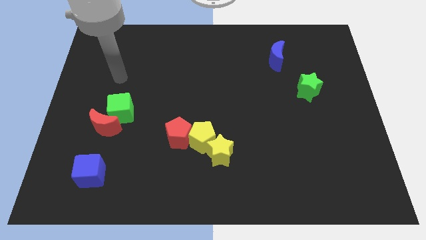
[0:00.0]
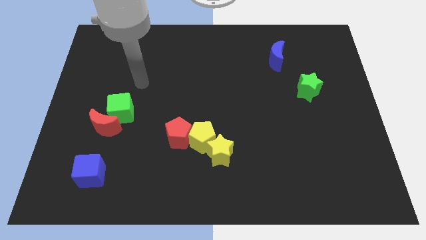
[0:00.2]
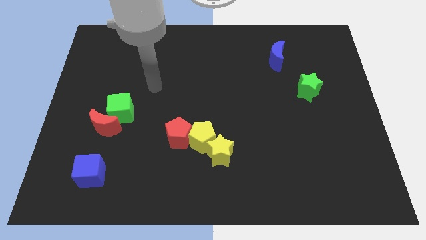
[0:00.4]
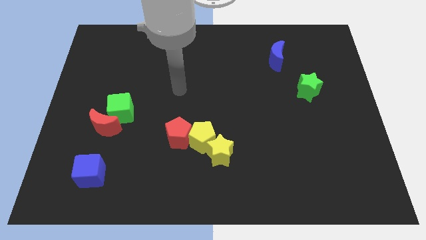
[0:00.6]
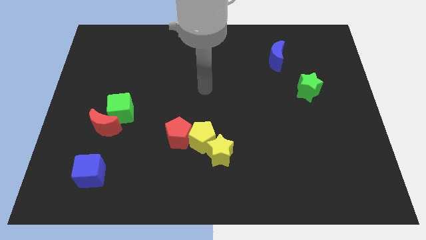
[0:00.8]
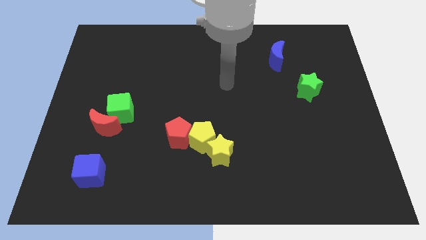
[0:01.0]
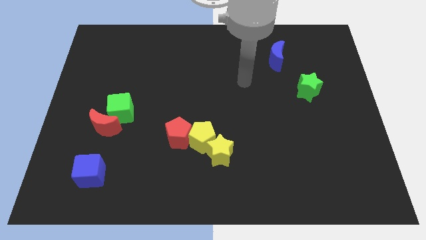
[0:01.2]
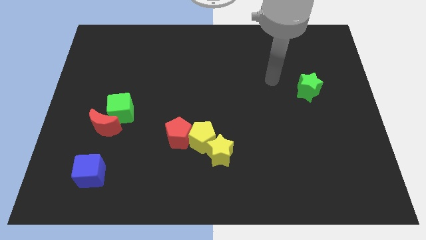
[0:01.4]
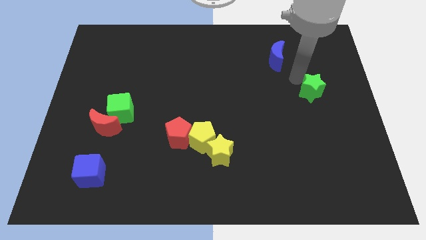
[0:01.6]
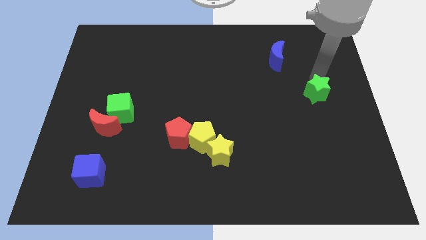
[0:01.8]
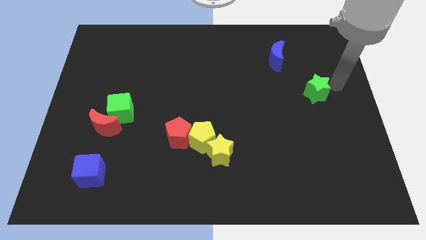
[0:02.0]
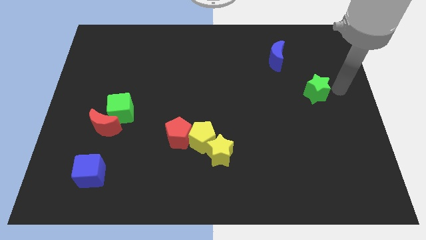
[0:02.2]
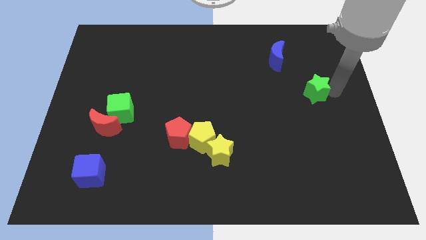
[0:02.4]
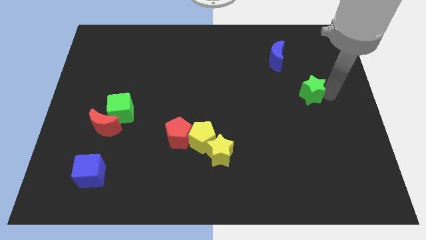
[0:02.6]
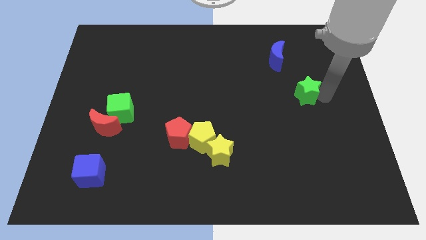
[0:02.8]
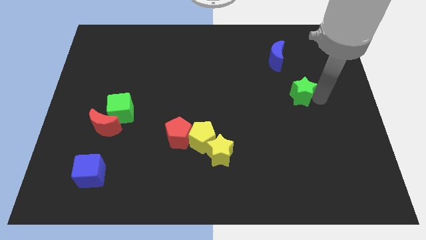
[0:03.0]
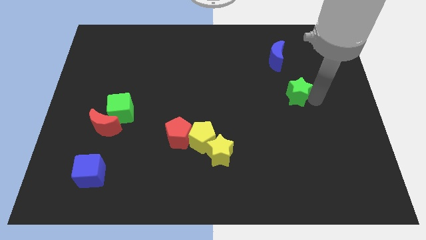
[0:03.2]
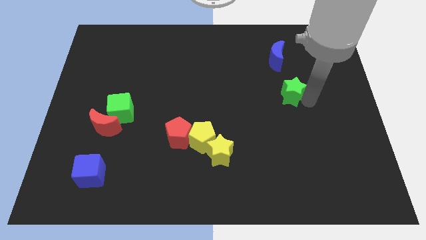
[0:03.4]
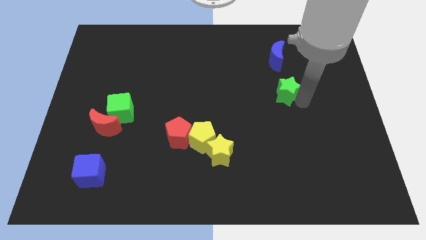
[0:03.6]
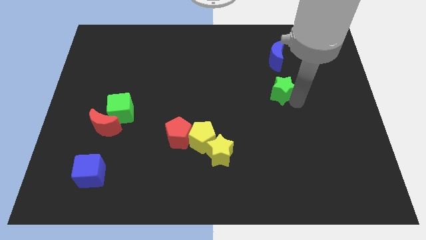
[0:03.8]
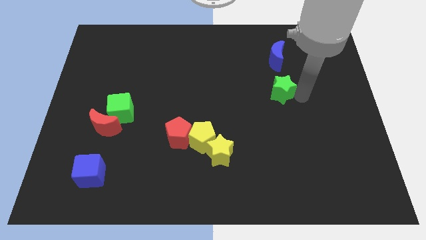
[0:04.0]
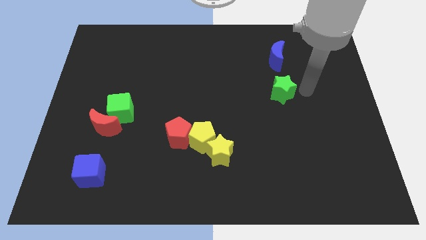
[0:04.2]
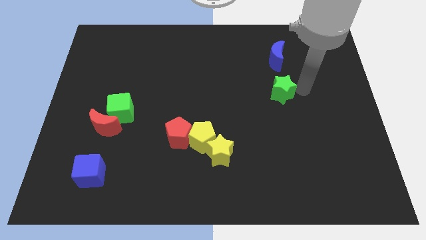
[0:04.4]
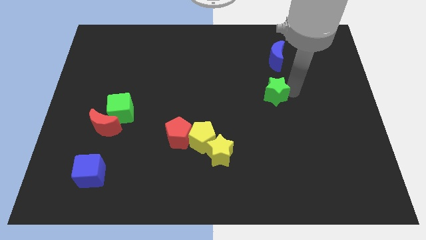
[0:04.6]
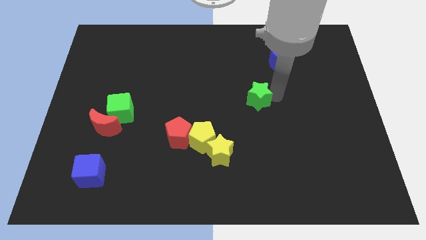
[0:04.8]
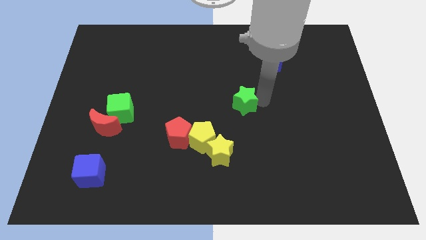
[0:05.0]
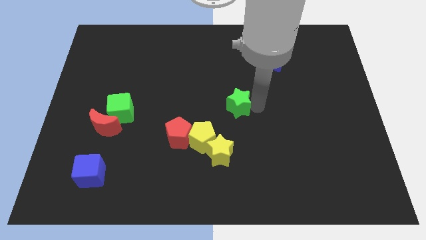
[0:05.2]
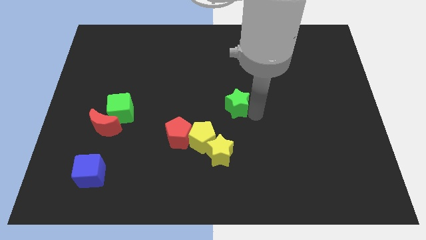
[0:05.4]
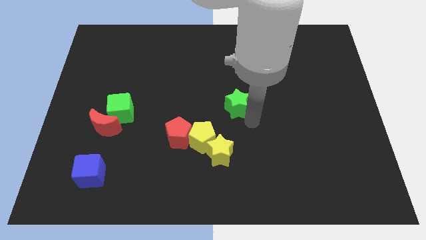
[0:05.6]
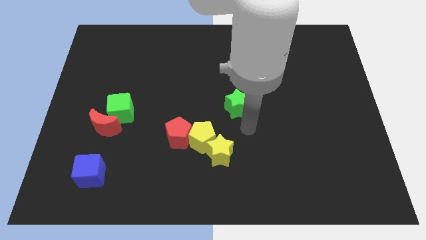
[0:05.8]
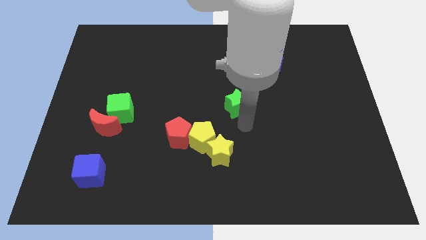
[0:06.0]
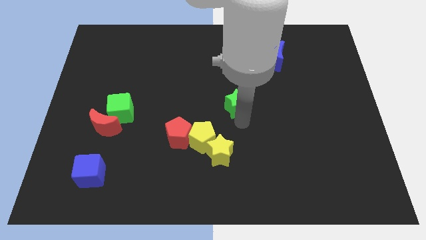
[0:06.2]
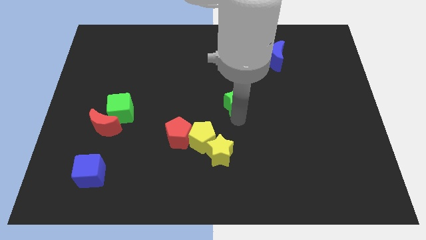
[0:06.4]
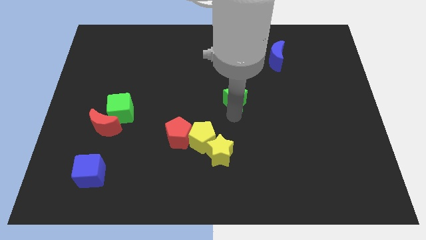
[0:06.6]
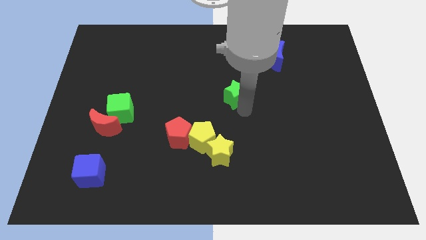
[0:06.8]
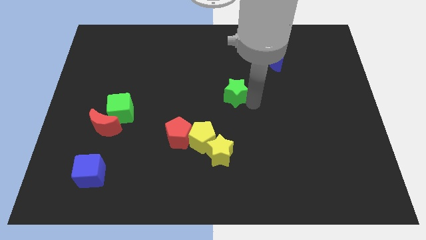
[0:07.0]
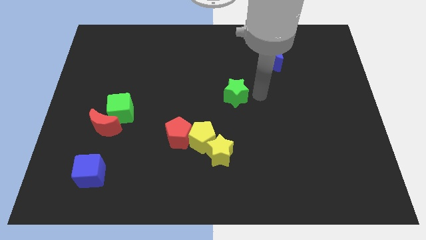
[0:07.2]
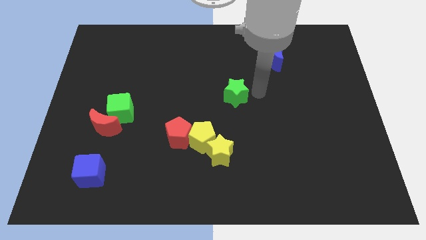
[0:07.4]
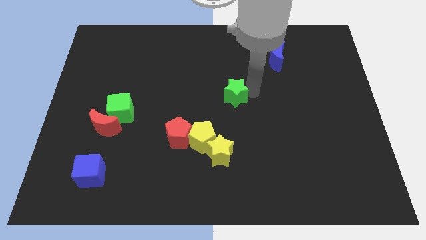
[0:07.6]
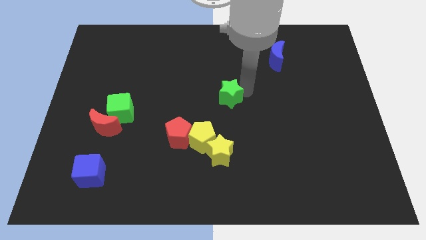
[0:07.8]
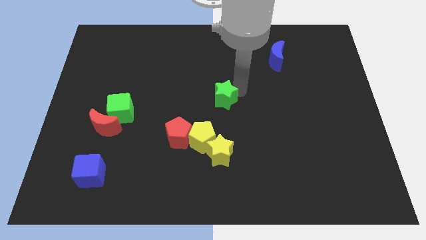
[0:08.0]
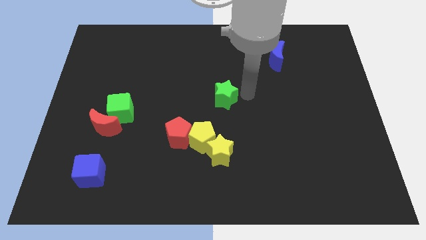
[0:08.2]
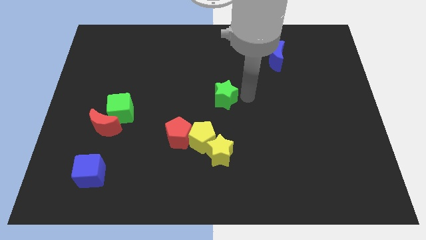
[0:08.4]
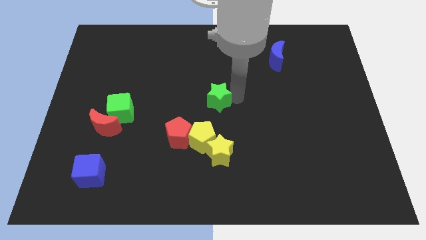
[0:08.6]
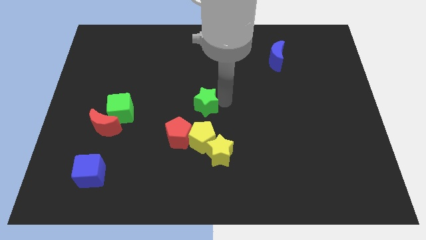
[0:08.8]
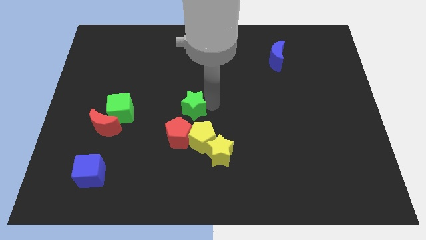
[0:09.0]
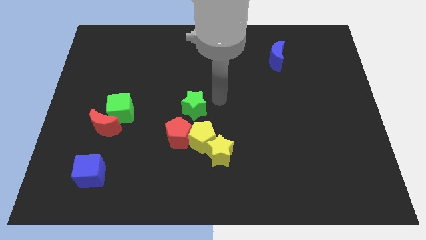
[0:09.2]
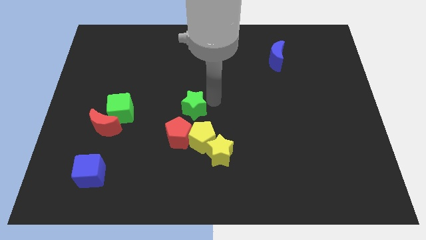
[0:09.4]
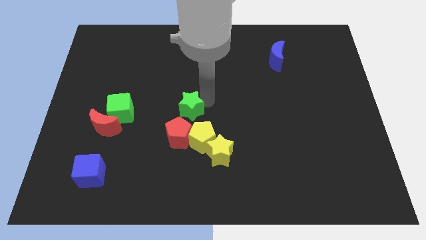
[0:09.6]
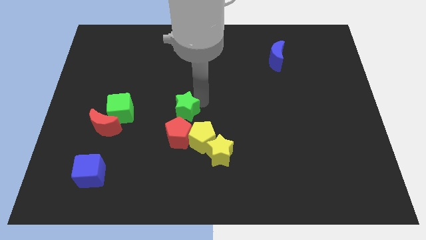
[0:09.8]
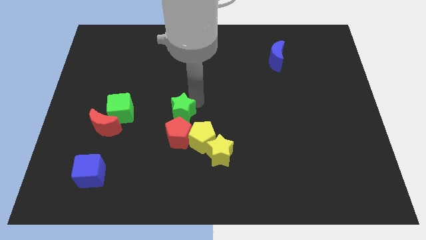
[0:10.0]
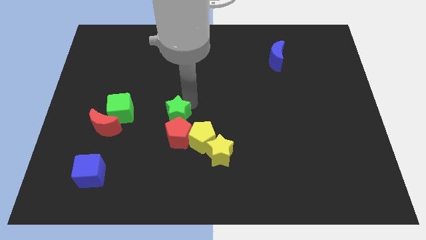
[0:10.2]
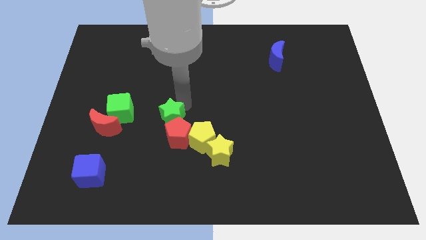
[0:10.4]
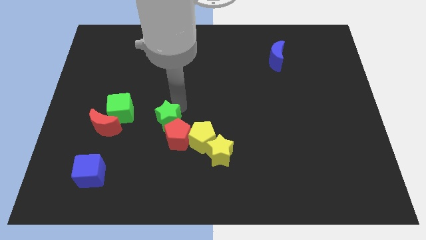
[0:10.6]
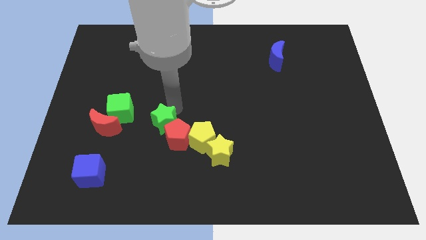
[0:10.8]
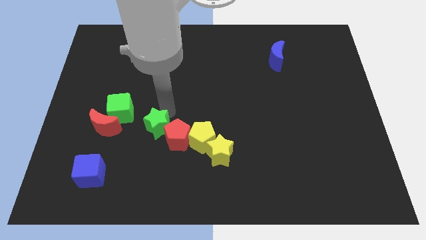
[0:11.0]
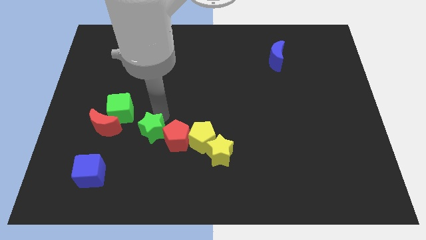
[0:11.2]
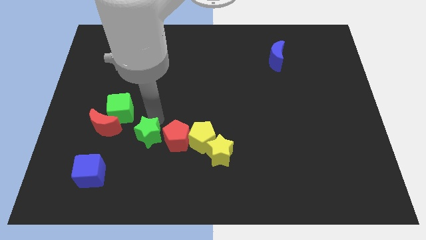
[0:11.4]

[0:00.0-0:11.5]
slide the green star to the bottom left side of the red pentagon

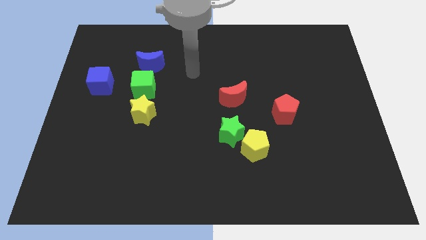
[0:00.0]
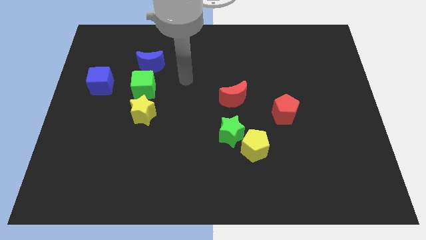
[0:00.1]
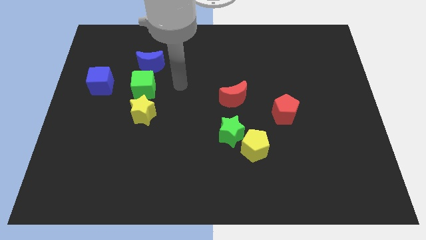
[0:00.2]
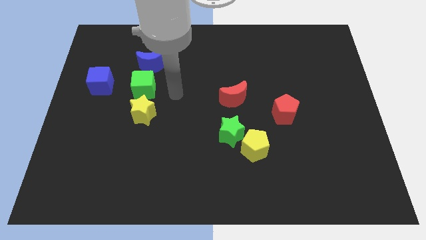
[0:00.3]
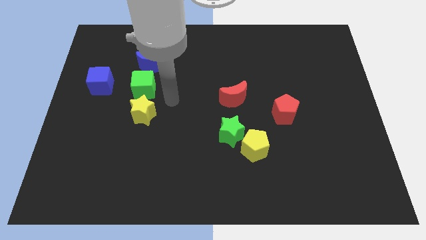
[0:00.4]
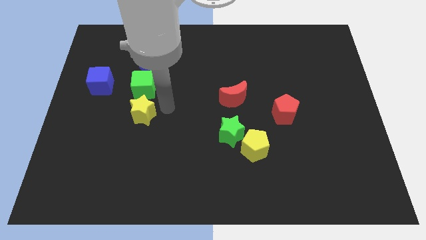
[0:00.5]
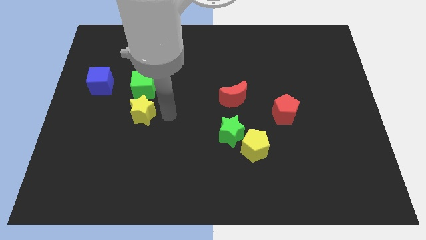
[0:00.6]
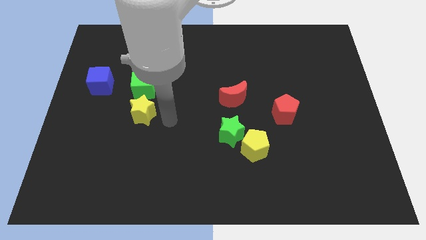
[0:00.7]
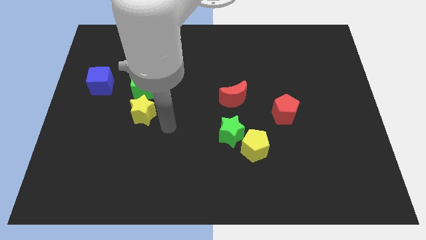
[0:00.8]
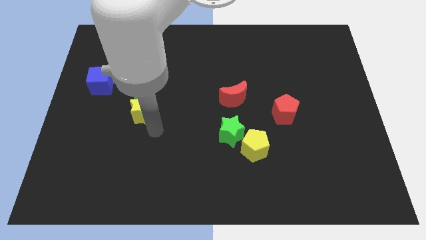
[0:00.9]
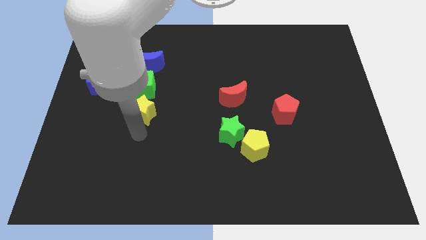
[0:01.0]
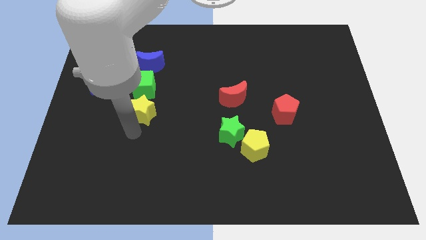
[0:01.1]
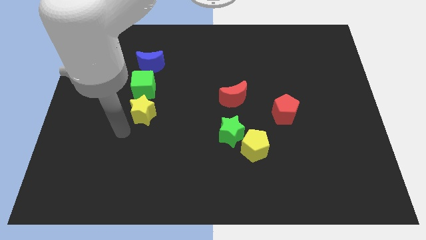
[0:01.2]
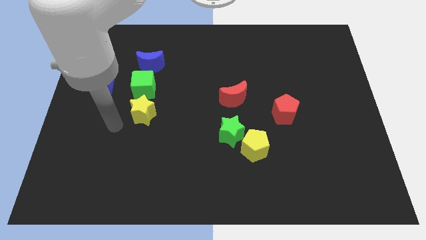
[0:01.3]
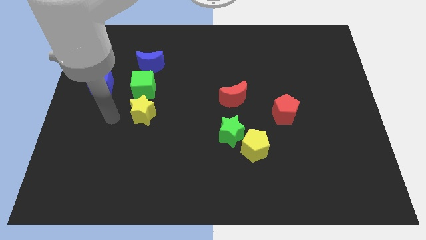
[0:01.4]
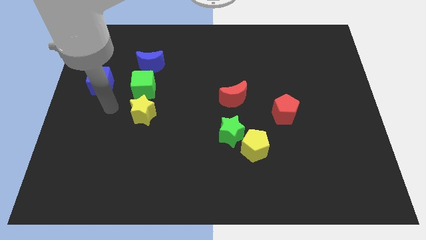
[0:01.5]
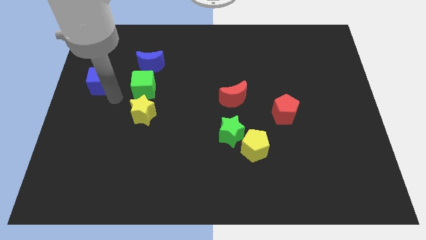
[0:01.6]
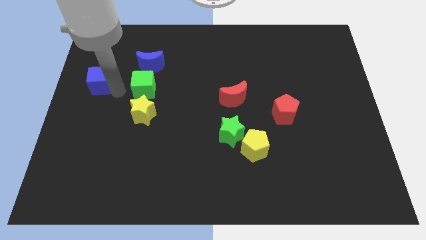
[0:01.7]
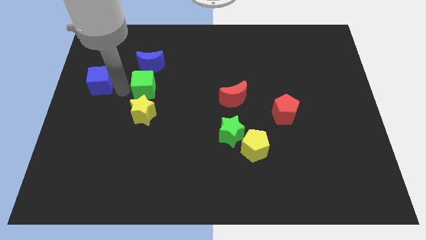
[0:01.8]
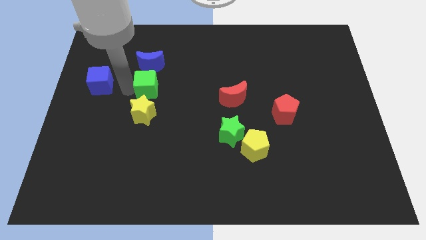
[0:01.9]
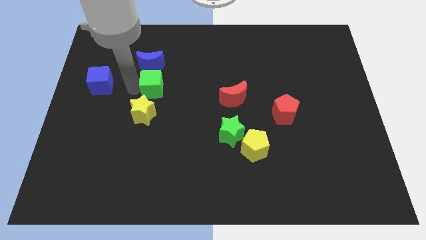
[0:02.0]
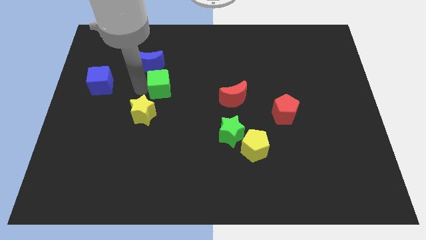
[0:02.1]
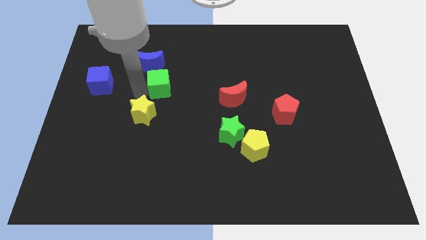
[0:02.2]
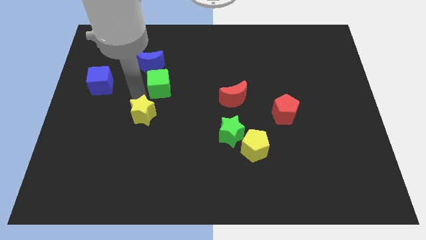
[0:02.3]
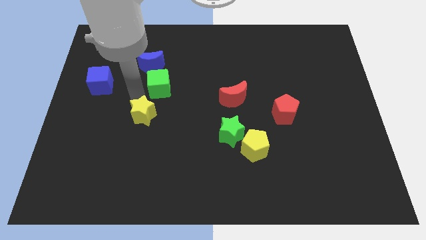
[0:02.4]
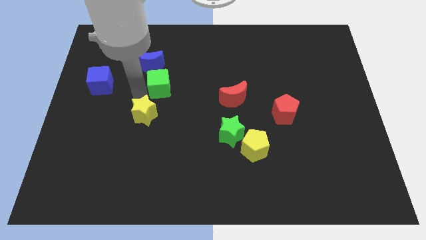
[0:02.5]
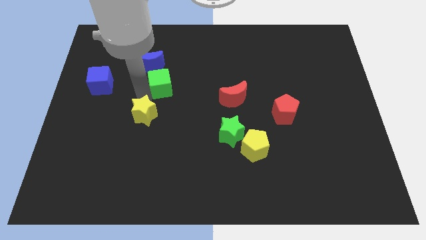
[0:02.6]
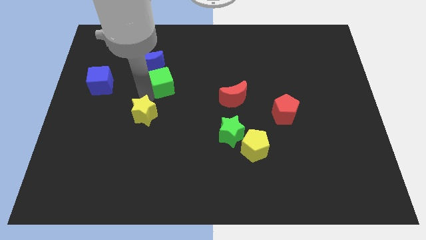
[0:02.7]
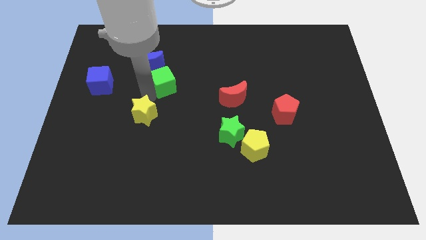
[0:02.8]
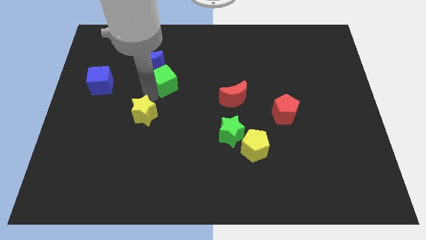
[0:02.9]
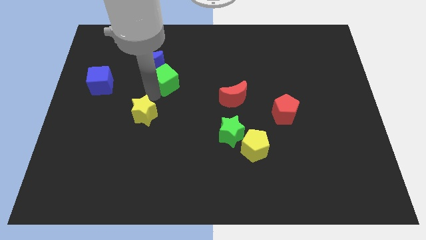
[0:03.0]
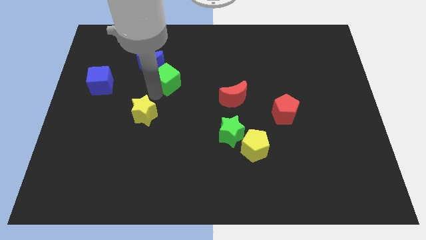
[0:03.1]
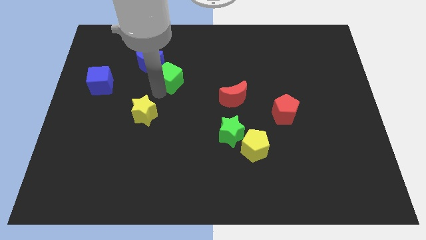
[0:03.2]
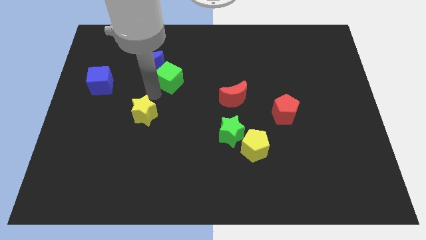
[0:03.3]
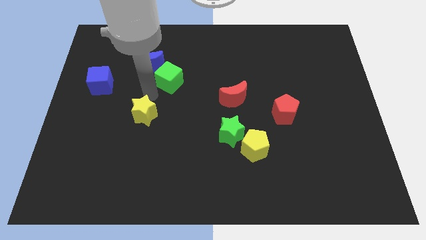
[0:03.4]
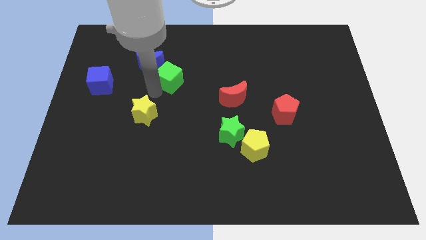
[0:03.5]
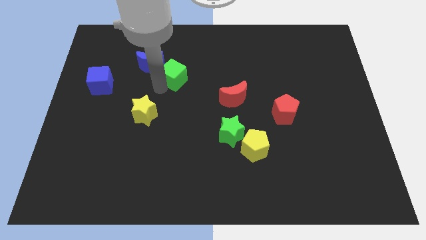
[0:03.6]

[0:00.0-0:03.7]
put the green cube right of the blue moon
